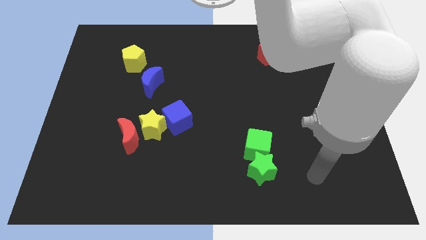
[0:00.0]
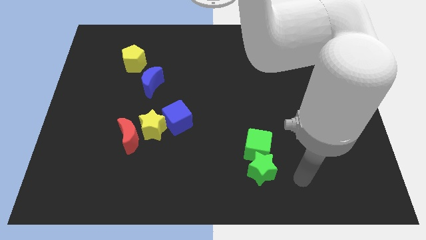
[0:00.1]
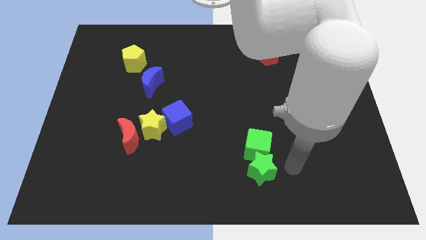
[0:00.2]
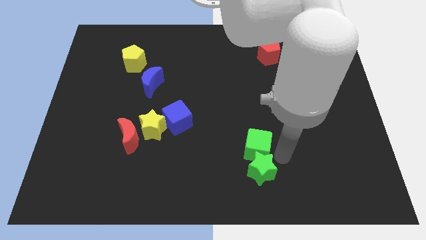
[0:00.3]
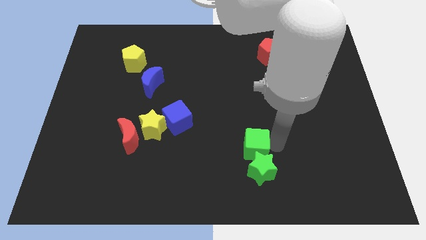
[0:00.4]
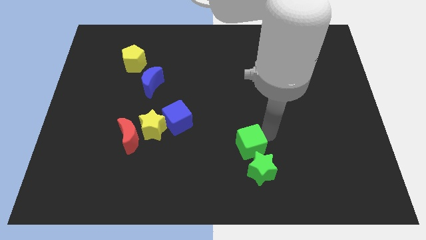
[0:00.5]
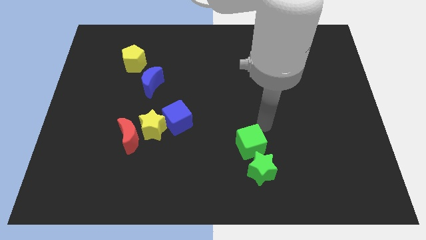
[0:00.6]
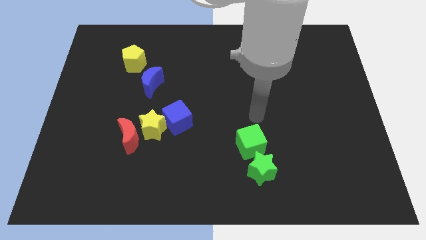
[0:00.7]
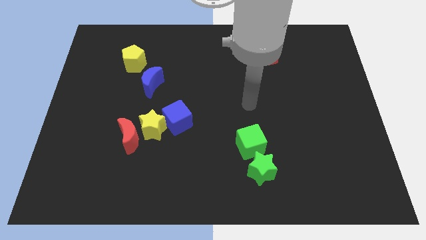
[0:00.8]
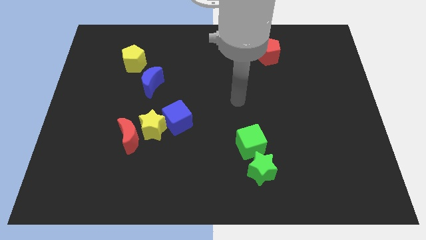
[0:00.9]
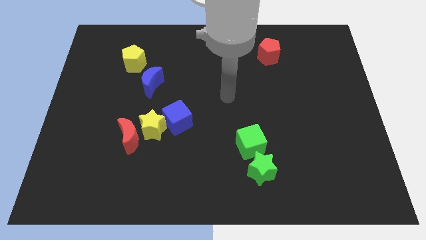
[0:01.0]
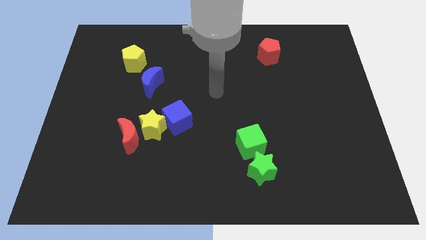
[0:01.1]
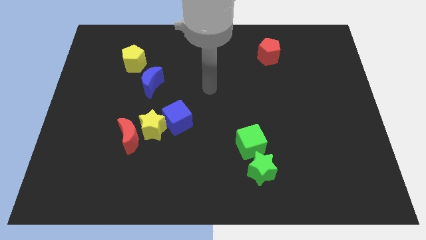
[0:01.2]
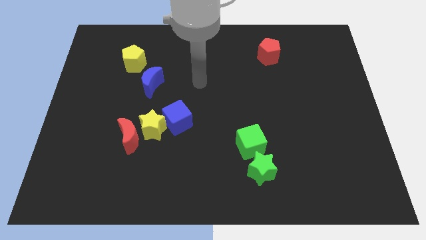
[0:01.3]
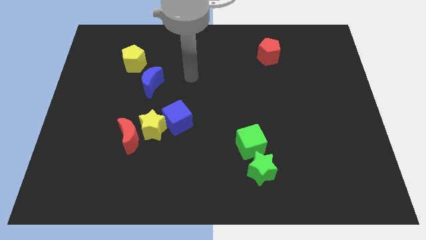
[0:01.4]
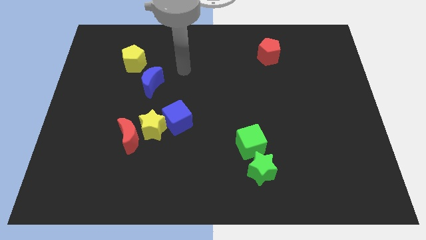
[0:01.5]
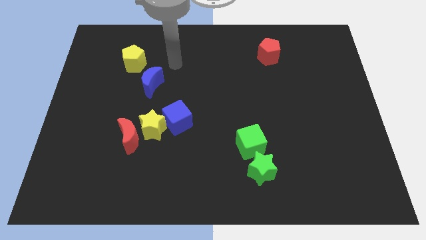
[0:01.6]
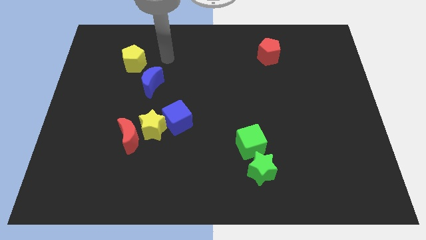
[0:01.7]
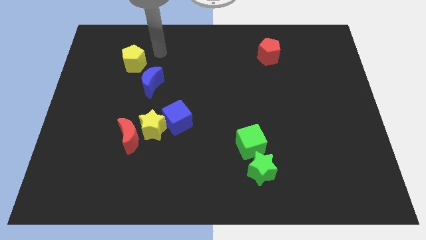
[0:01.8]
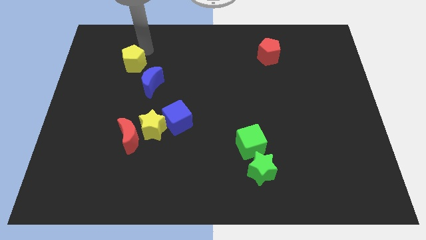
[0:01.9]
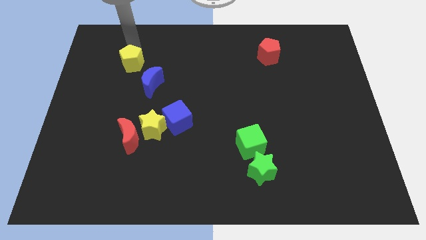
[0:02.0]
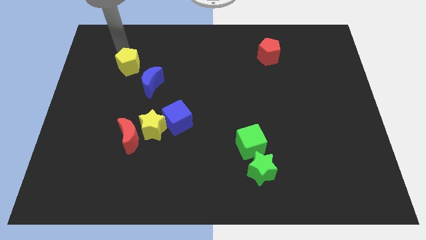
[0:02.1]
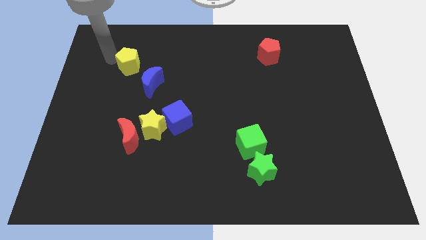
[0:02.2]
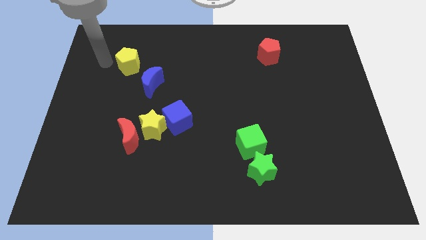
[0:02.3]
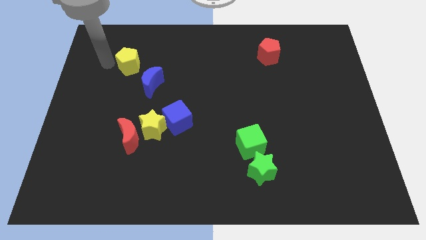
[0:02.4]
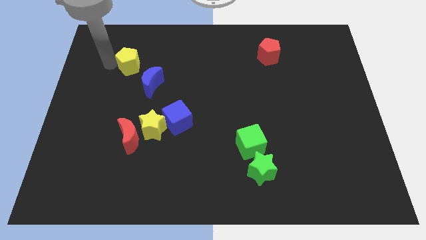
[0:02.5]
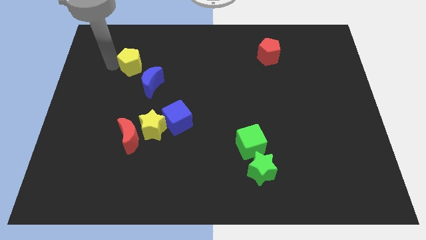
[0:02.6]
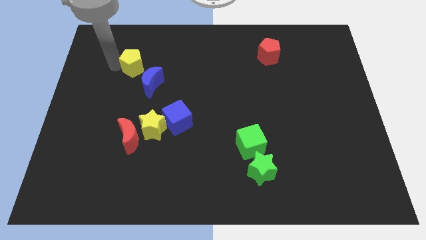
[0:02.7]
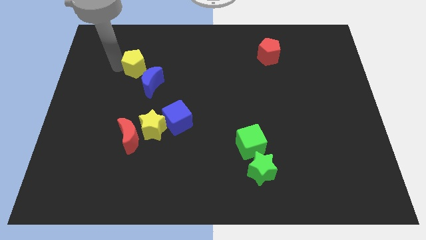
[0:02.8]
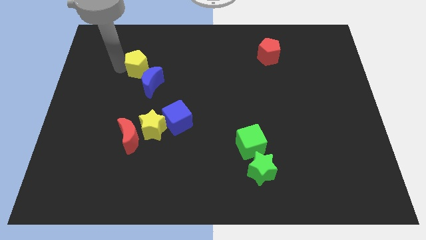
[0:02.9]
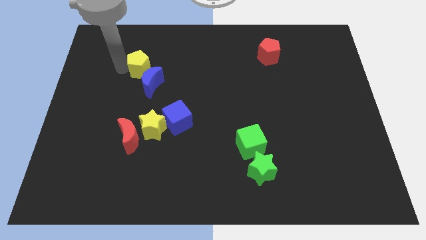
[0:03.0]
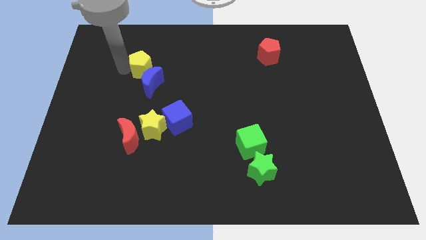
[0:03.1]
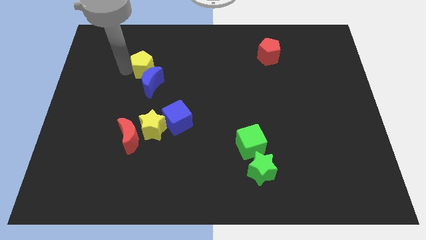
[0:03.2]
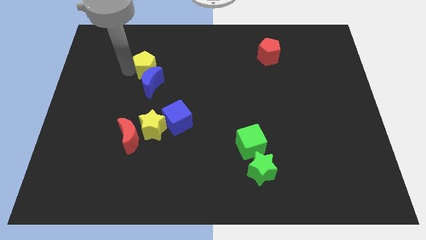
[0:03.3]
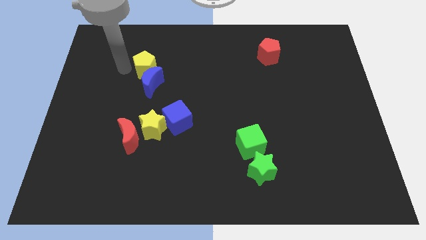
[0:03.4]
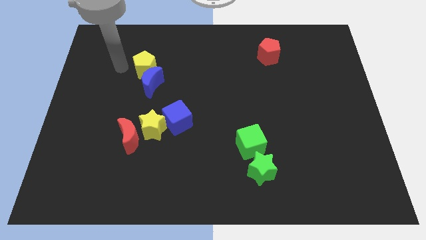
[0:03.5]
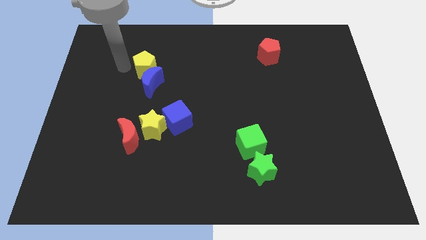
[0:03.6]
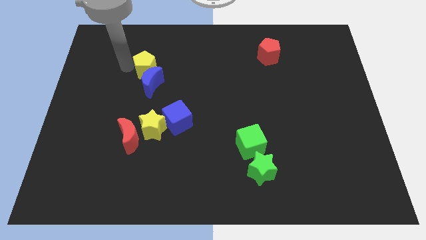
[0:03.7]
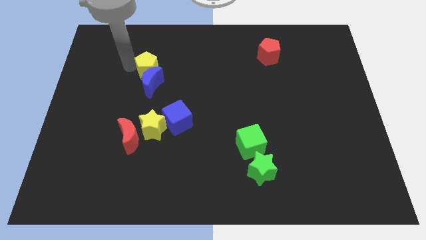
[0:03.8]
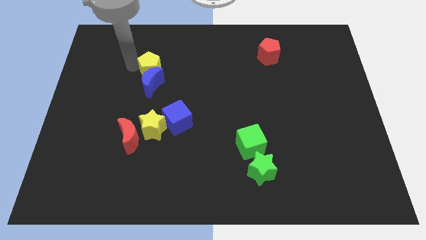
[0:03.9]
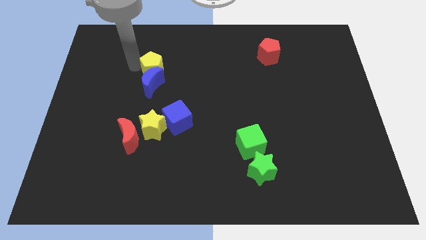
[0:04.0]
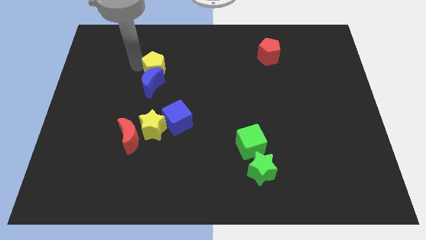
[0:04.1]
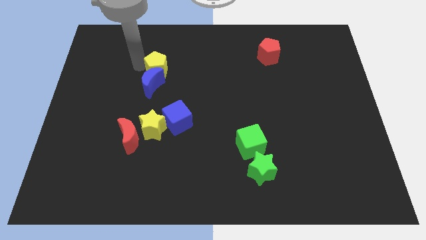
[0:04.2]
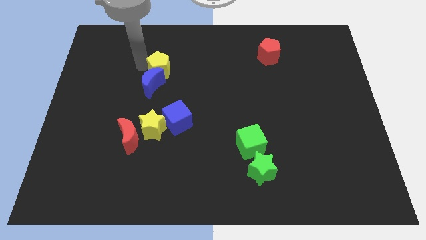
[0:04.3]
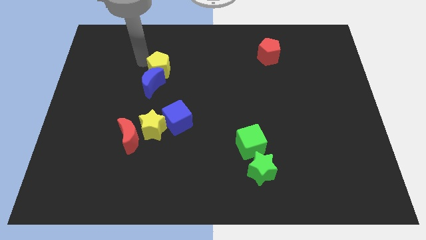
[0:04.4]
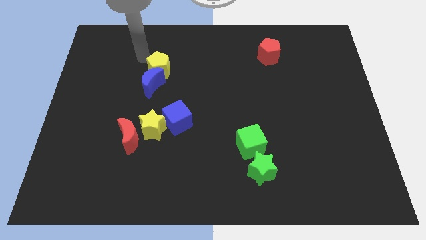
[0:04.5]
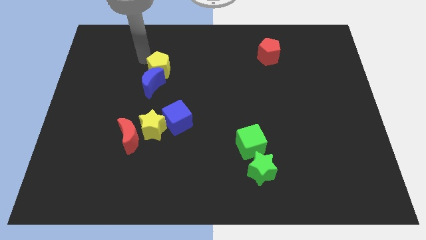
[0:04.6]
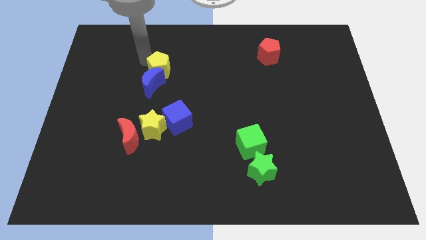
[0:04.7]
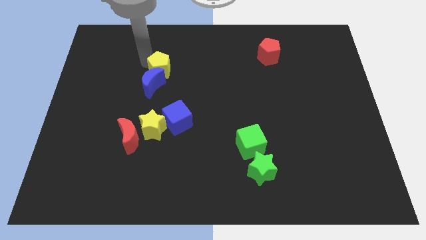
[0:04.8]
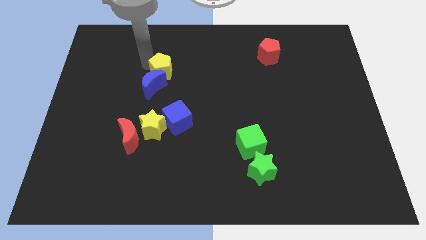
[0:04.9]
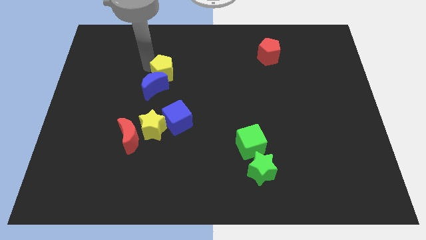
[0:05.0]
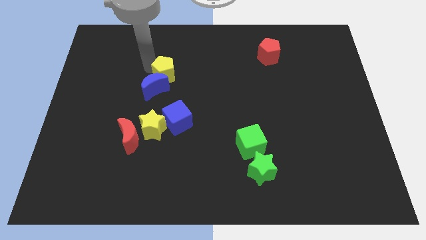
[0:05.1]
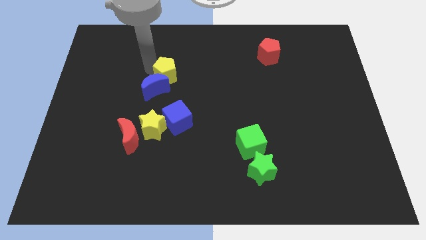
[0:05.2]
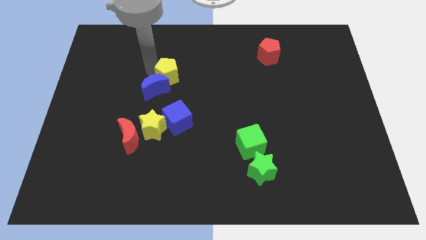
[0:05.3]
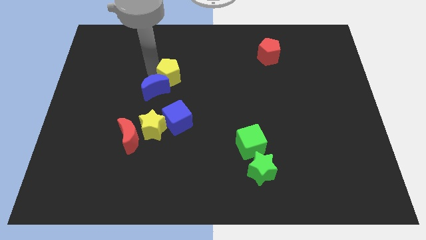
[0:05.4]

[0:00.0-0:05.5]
put the yellow pentagon to the right of the blue moon

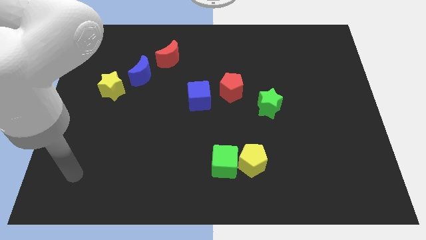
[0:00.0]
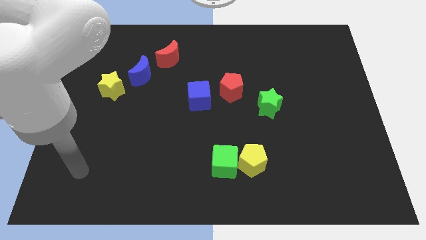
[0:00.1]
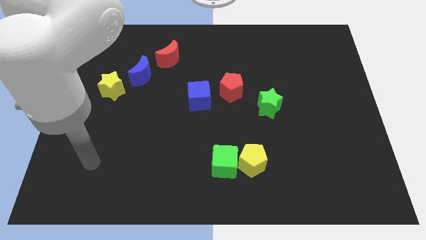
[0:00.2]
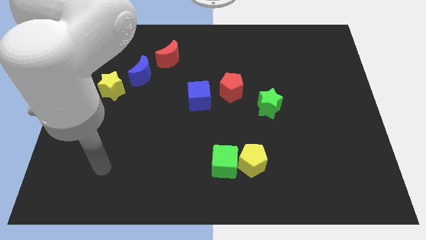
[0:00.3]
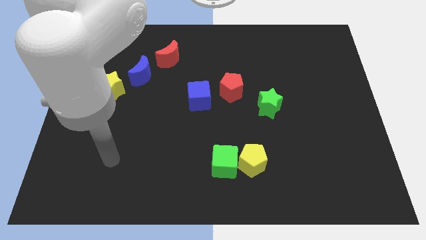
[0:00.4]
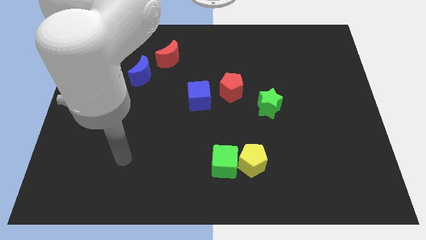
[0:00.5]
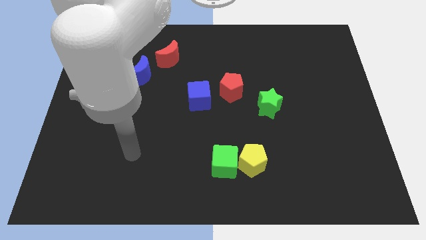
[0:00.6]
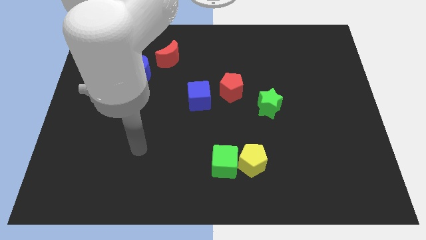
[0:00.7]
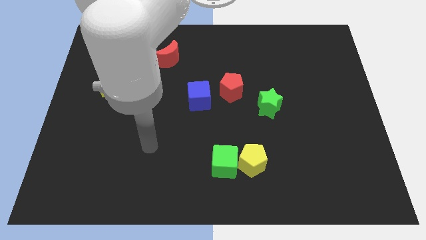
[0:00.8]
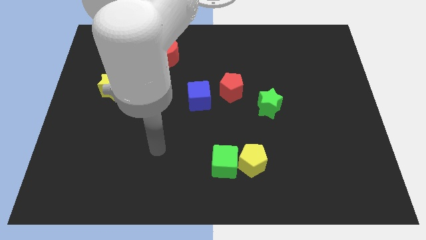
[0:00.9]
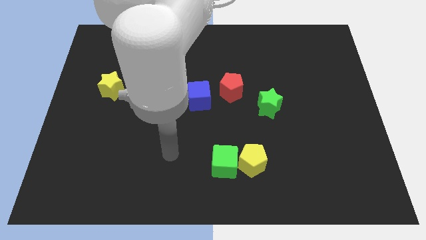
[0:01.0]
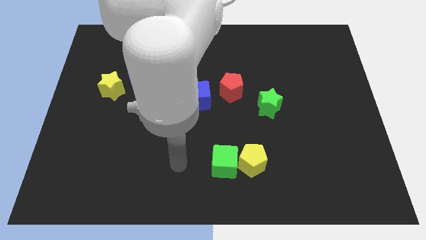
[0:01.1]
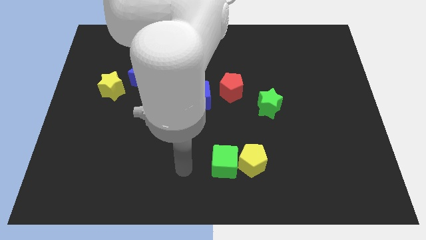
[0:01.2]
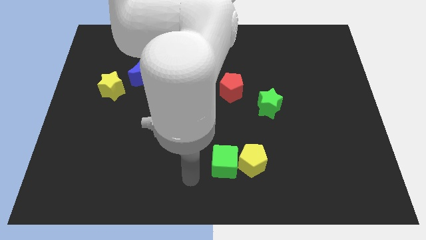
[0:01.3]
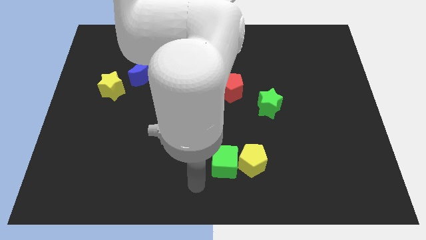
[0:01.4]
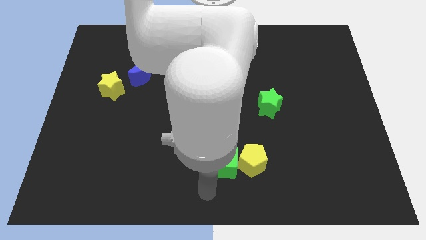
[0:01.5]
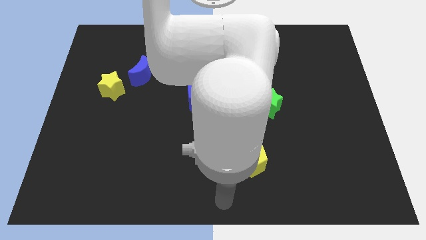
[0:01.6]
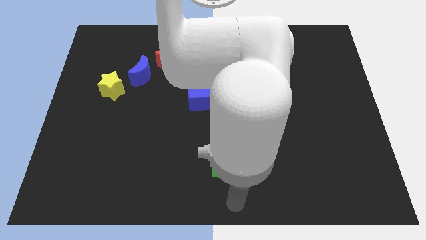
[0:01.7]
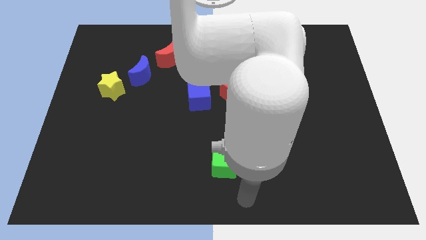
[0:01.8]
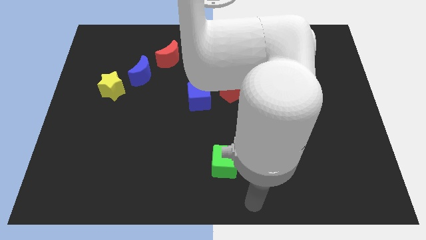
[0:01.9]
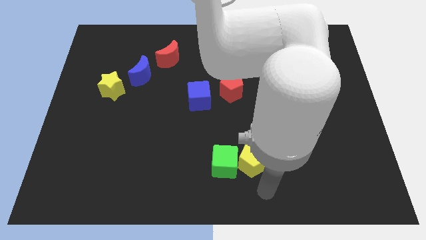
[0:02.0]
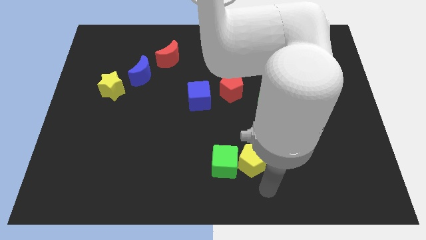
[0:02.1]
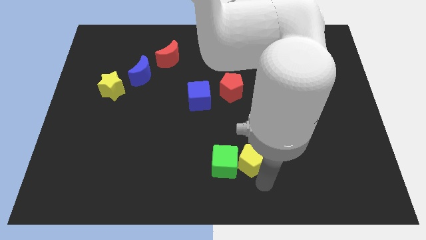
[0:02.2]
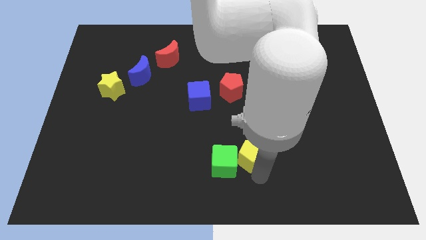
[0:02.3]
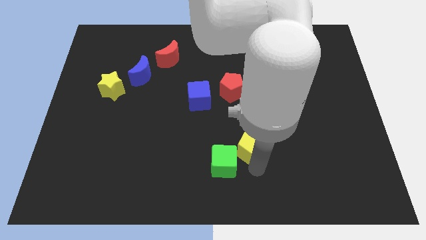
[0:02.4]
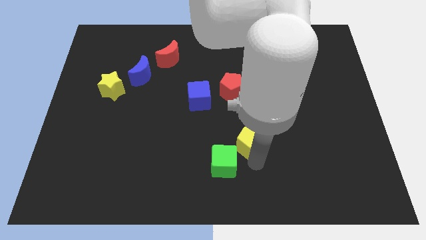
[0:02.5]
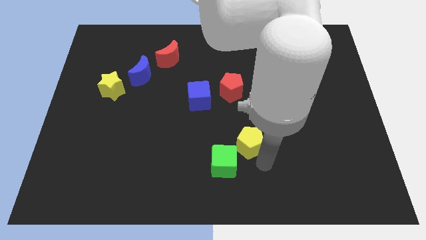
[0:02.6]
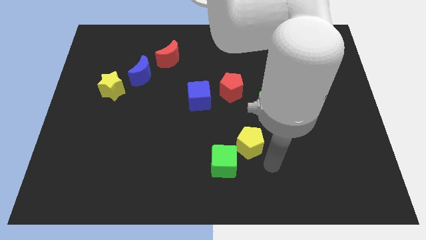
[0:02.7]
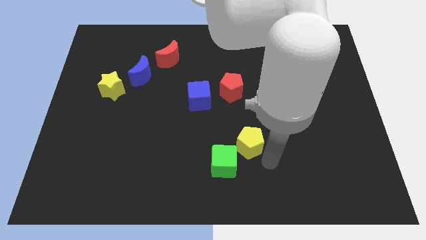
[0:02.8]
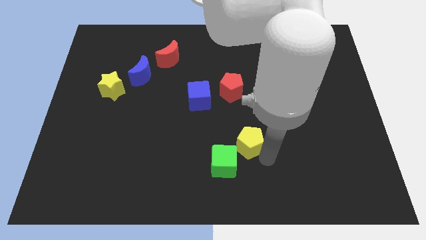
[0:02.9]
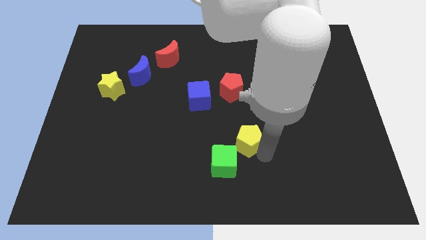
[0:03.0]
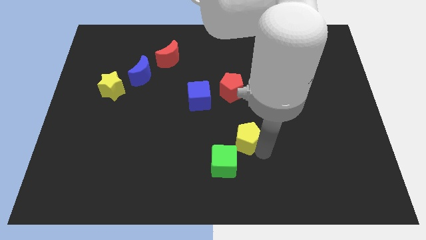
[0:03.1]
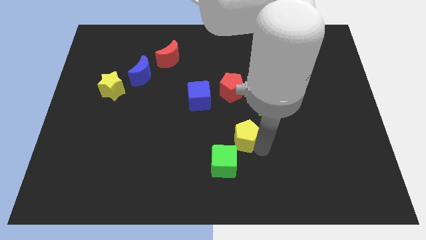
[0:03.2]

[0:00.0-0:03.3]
slide the yellow pentagon to the top side of the green cube
